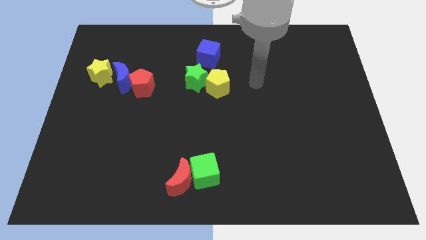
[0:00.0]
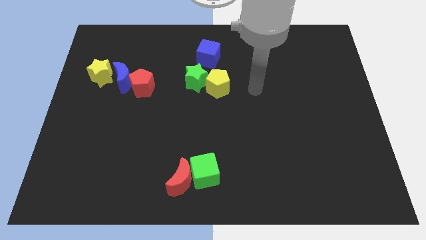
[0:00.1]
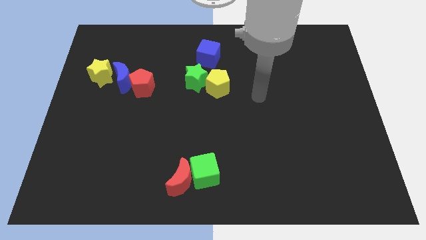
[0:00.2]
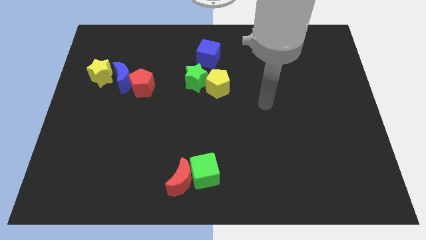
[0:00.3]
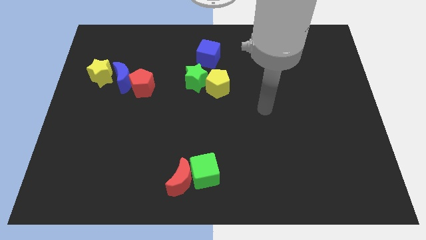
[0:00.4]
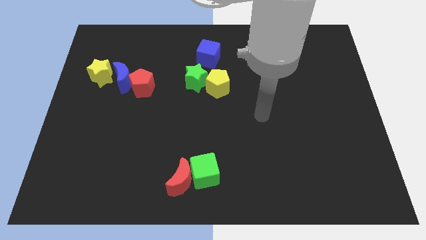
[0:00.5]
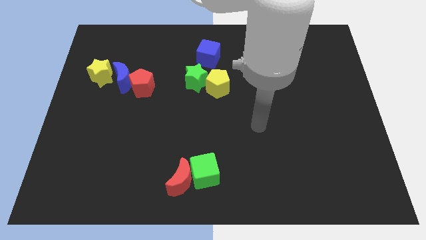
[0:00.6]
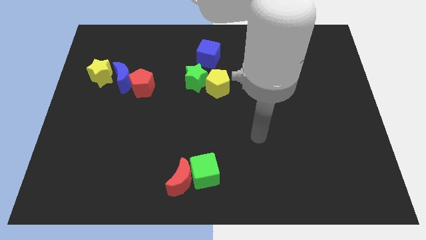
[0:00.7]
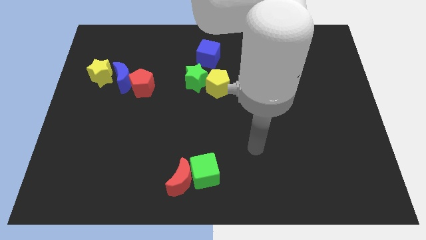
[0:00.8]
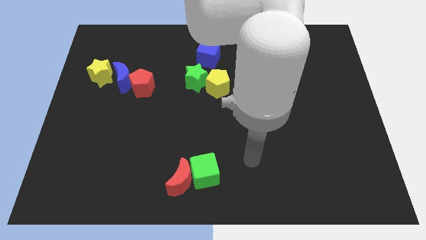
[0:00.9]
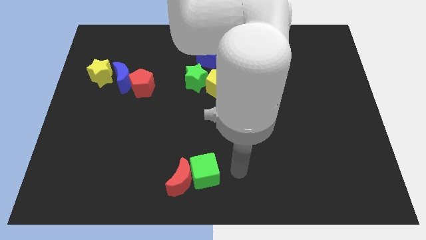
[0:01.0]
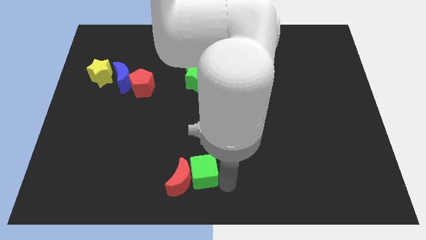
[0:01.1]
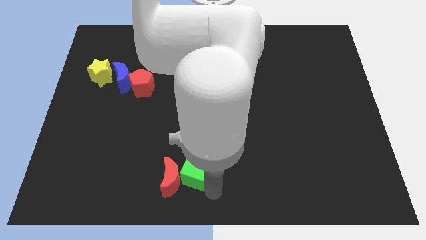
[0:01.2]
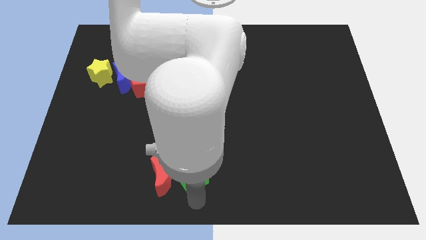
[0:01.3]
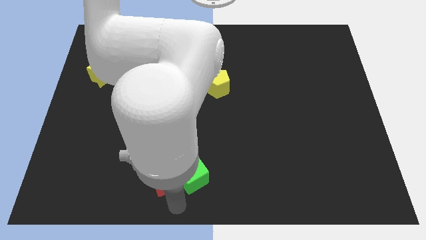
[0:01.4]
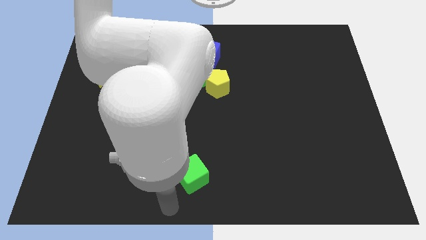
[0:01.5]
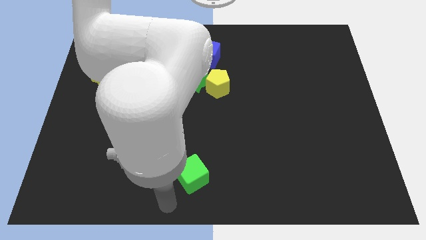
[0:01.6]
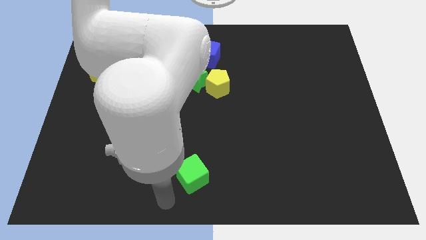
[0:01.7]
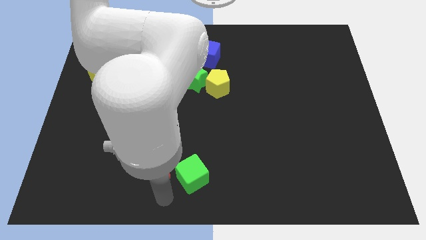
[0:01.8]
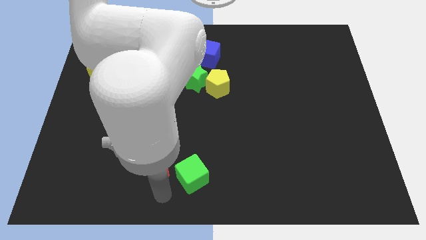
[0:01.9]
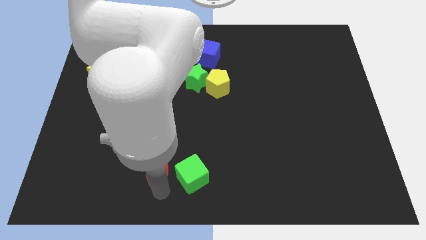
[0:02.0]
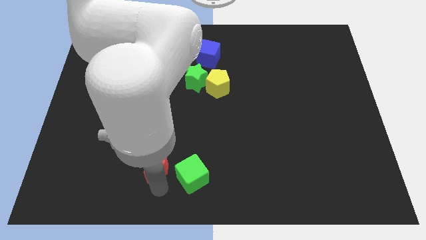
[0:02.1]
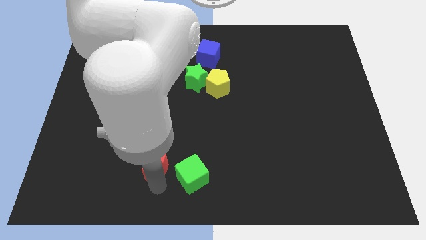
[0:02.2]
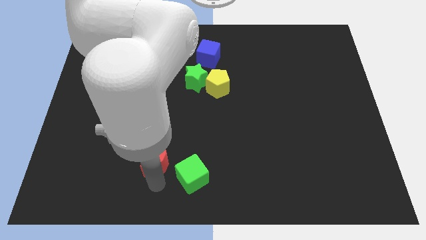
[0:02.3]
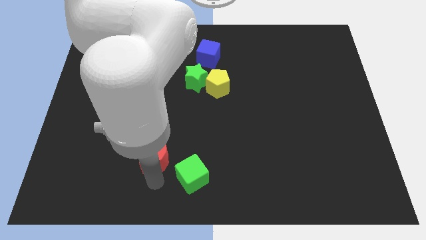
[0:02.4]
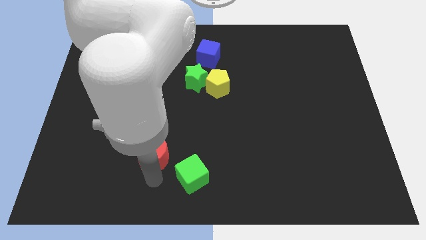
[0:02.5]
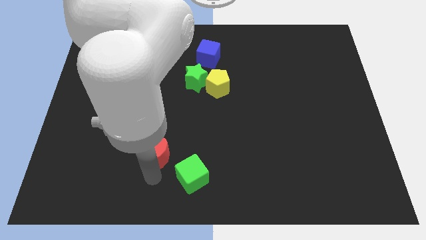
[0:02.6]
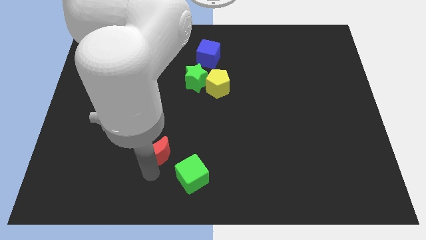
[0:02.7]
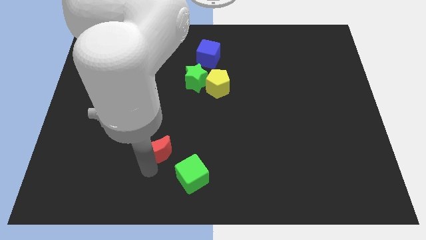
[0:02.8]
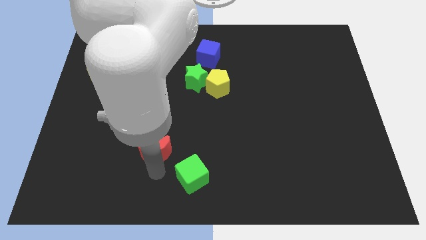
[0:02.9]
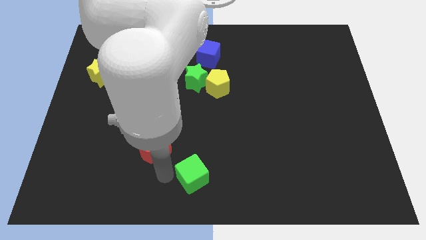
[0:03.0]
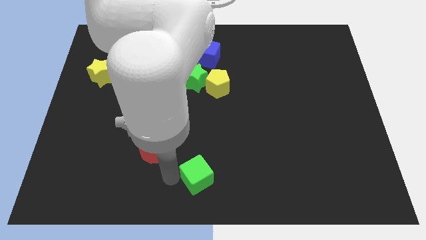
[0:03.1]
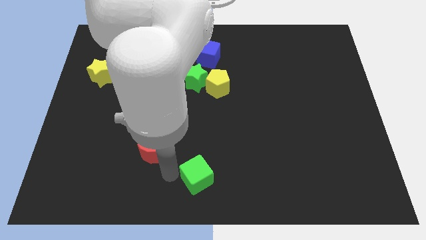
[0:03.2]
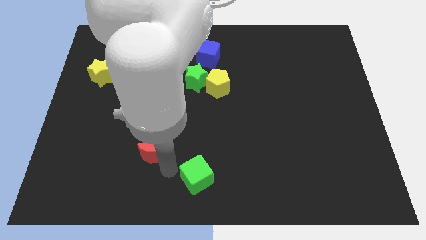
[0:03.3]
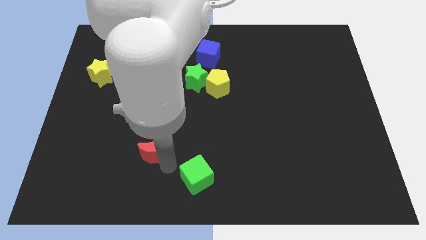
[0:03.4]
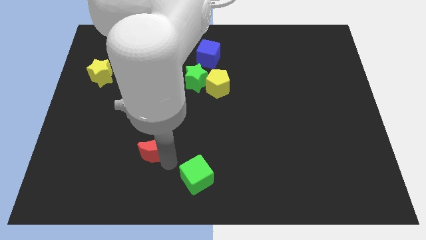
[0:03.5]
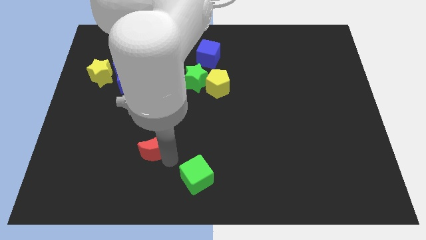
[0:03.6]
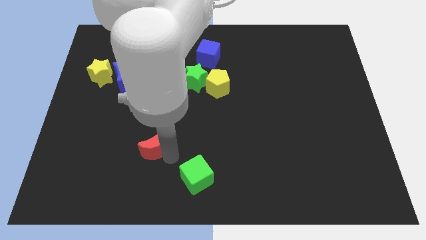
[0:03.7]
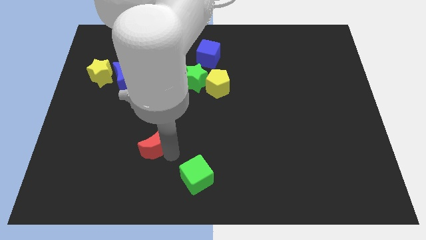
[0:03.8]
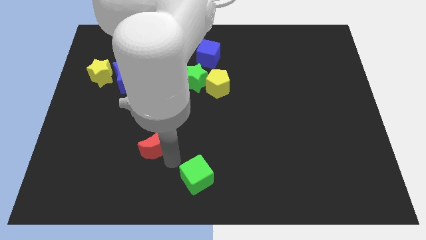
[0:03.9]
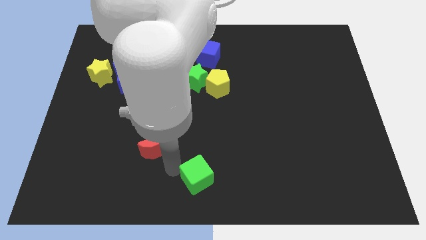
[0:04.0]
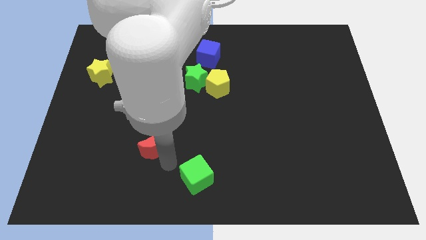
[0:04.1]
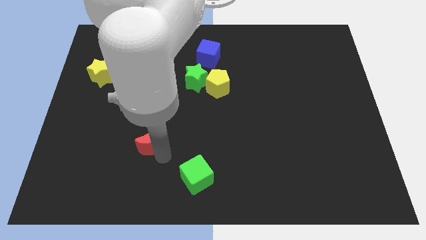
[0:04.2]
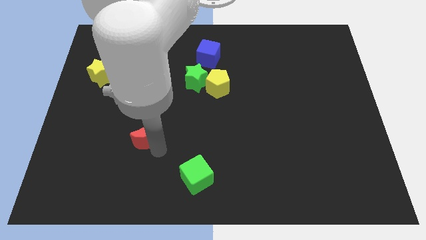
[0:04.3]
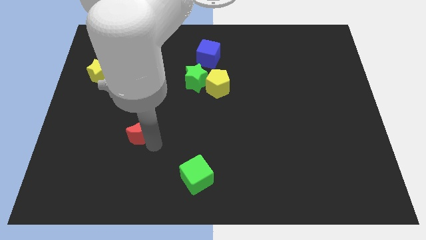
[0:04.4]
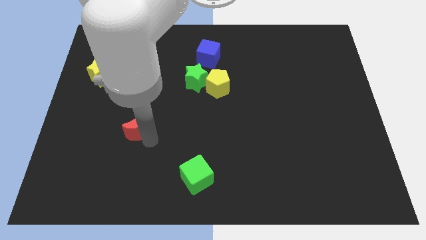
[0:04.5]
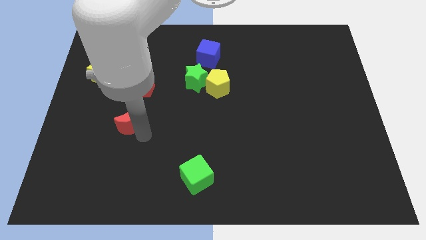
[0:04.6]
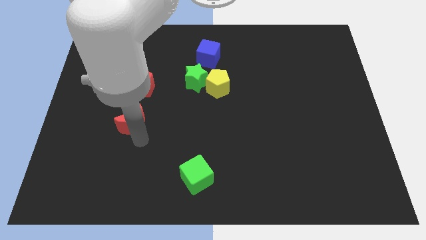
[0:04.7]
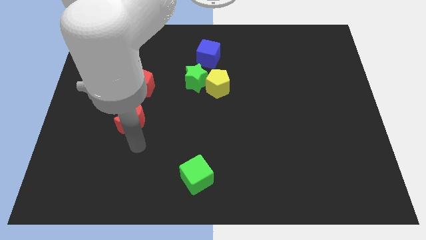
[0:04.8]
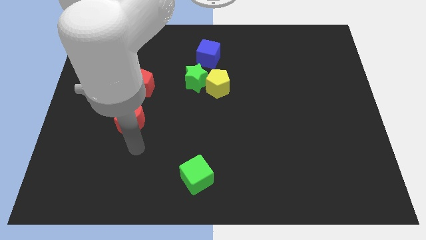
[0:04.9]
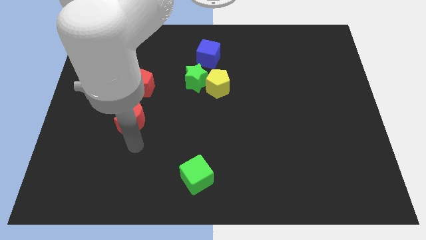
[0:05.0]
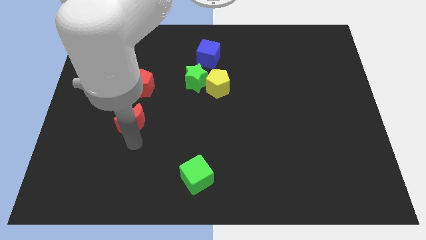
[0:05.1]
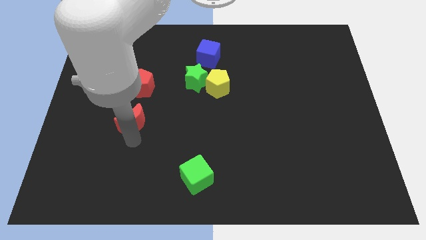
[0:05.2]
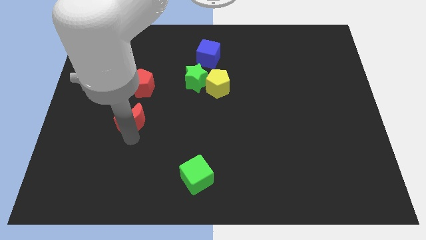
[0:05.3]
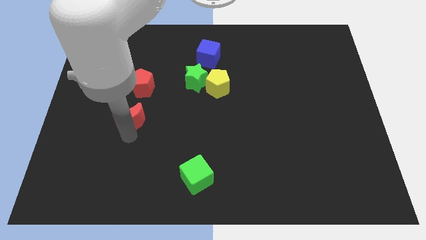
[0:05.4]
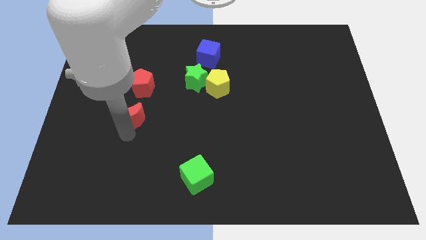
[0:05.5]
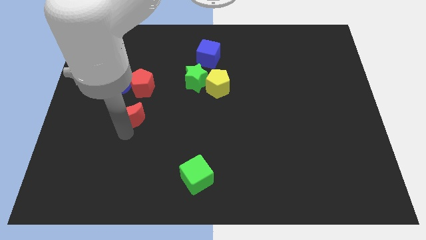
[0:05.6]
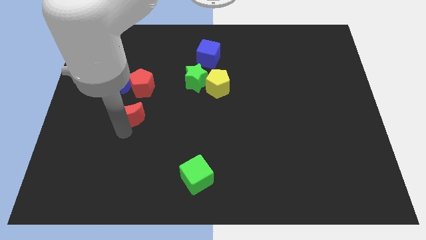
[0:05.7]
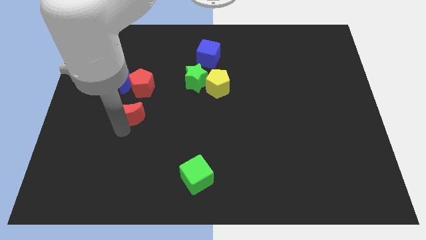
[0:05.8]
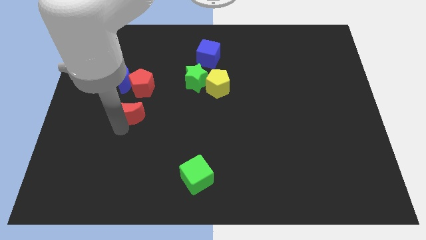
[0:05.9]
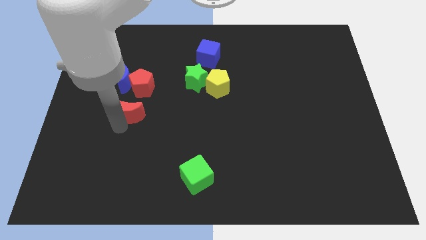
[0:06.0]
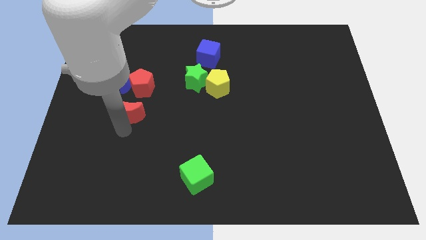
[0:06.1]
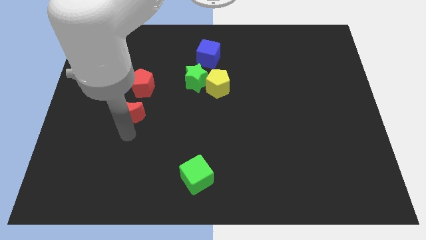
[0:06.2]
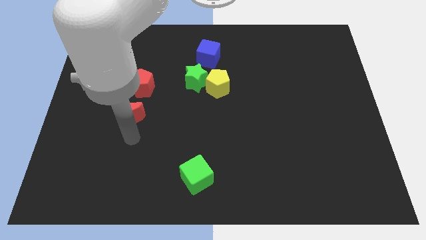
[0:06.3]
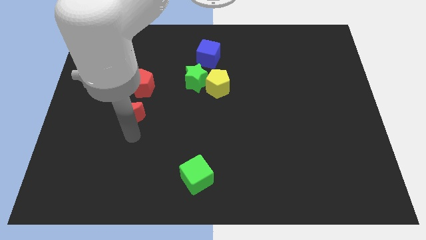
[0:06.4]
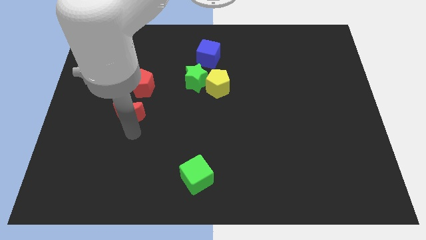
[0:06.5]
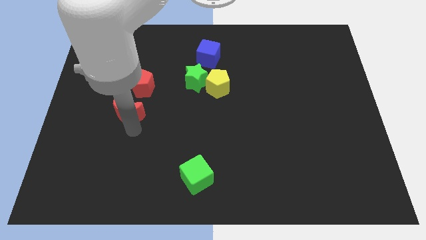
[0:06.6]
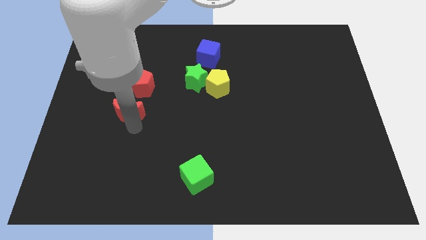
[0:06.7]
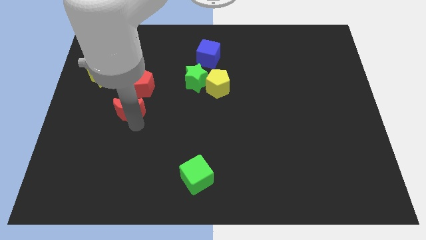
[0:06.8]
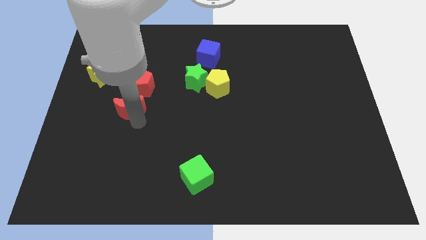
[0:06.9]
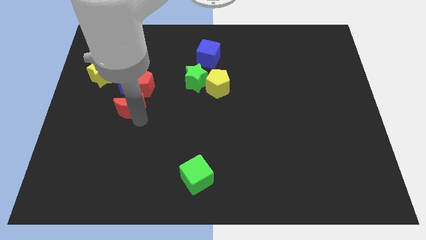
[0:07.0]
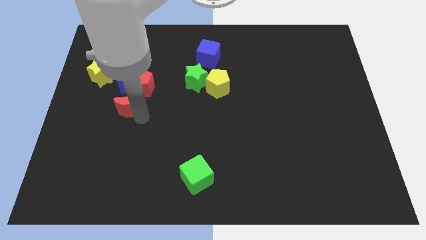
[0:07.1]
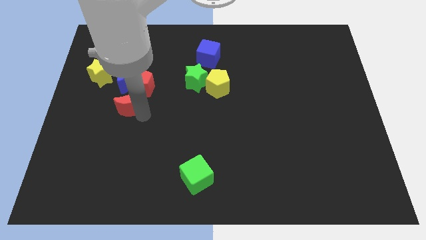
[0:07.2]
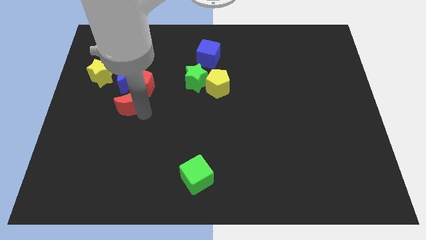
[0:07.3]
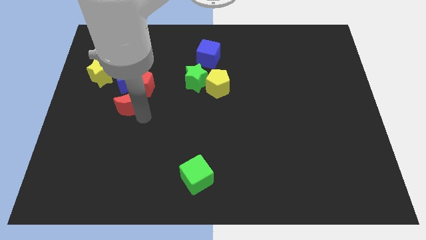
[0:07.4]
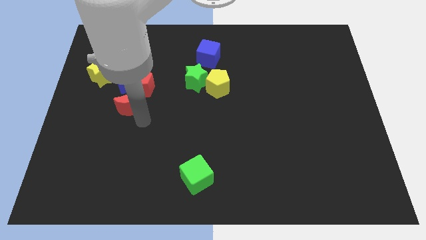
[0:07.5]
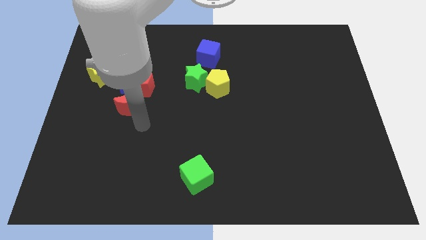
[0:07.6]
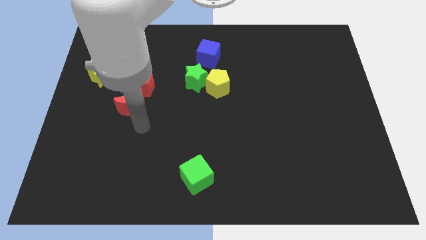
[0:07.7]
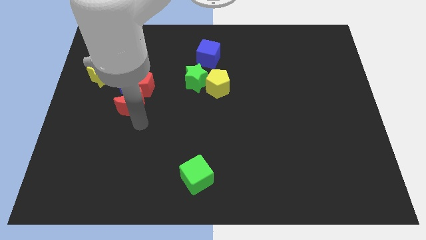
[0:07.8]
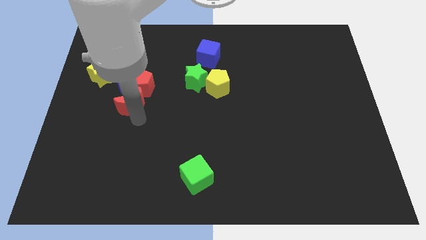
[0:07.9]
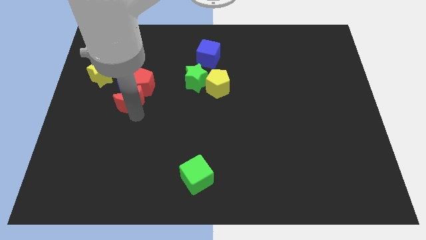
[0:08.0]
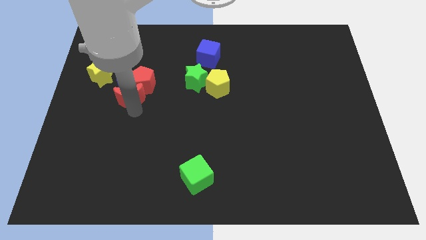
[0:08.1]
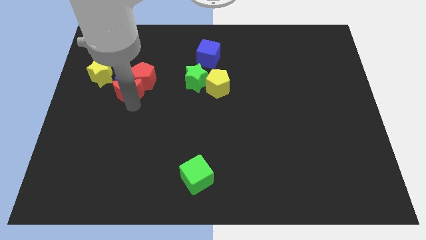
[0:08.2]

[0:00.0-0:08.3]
push the red moon close to the blue moon
